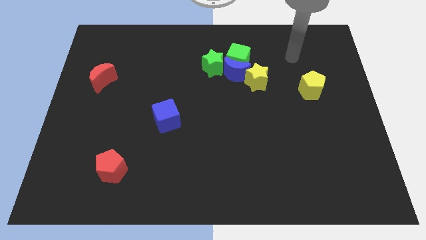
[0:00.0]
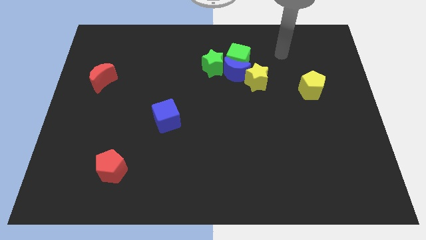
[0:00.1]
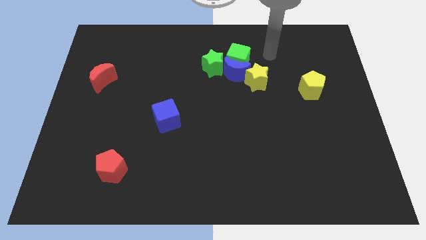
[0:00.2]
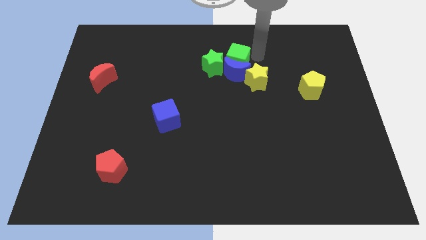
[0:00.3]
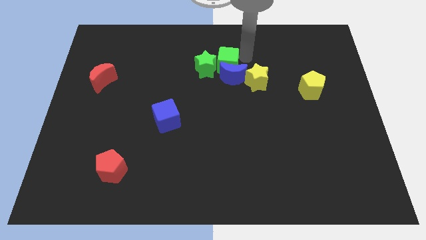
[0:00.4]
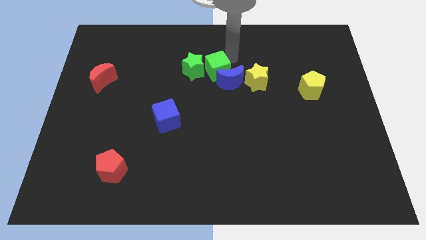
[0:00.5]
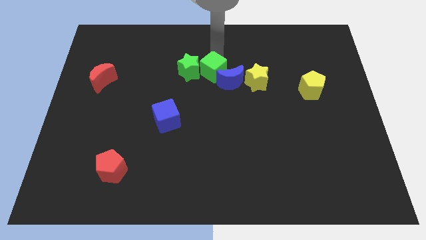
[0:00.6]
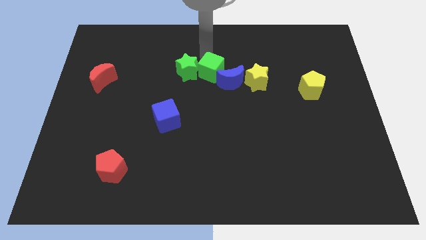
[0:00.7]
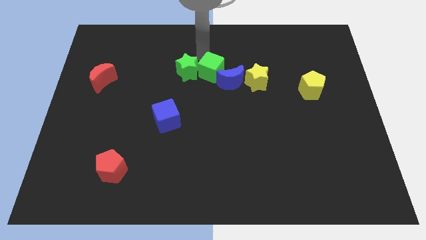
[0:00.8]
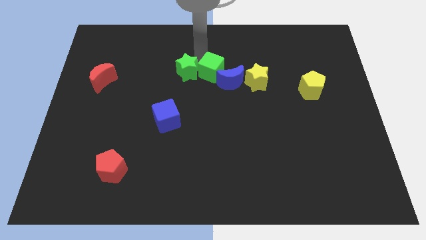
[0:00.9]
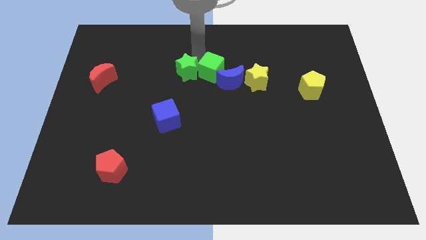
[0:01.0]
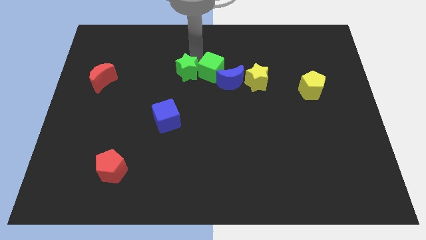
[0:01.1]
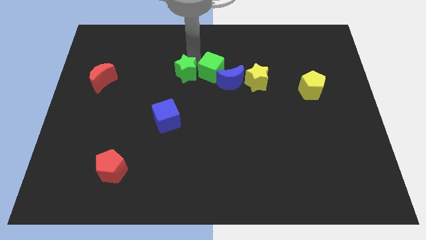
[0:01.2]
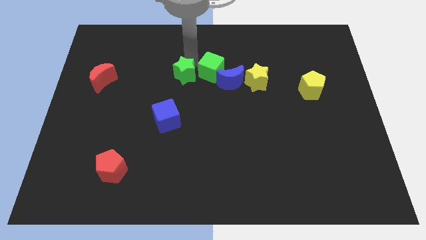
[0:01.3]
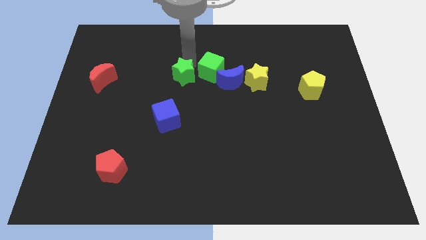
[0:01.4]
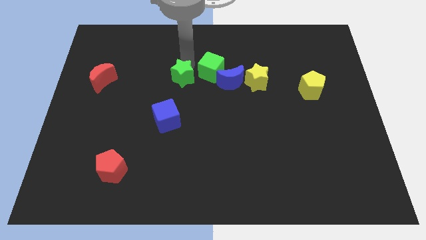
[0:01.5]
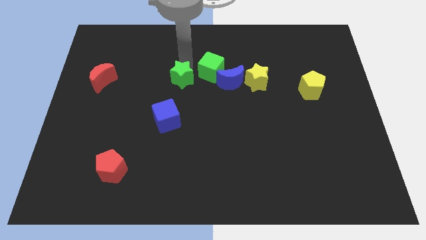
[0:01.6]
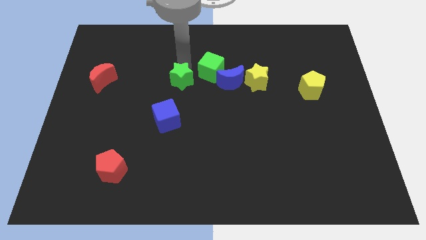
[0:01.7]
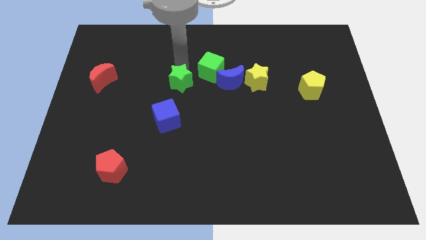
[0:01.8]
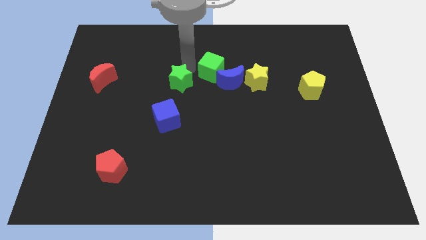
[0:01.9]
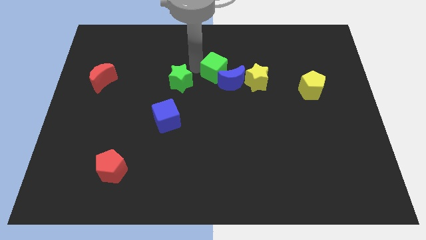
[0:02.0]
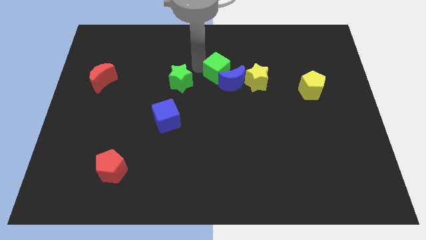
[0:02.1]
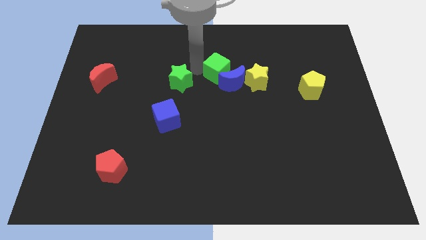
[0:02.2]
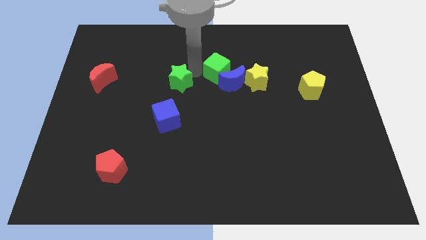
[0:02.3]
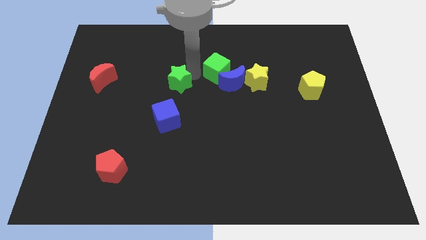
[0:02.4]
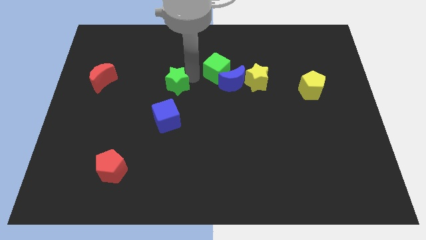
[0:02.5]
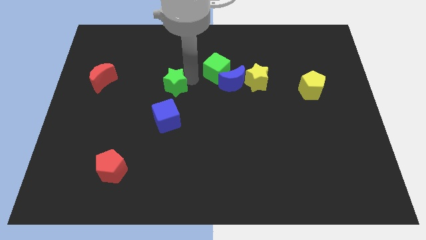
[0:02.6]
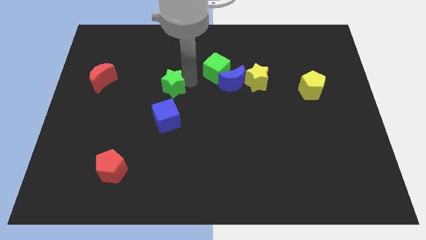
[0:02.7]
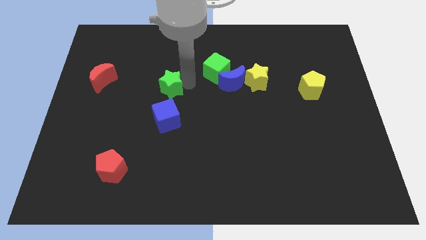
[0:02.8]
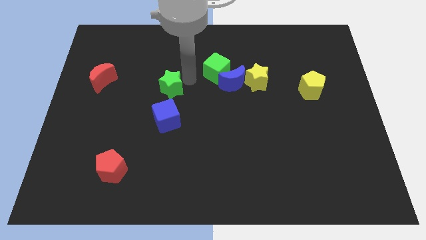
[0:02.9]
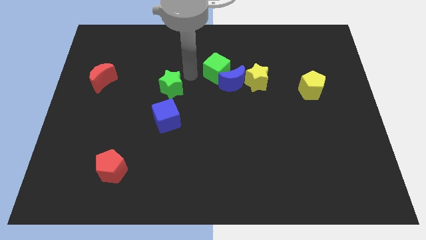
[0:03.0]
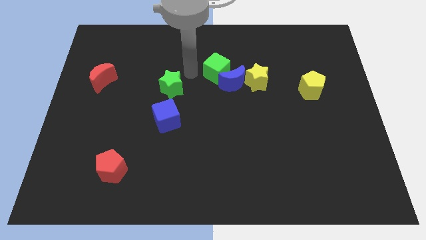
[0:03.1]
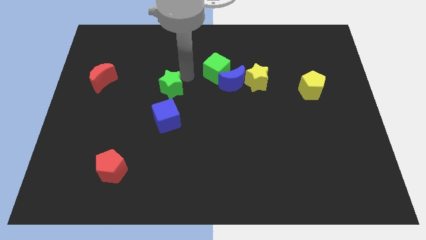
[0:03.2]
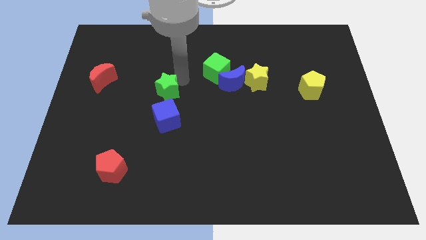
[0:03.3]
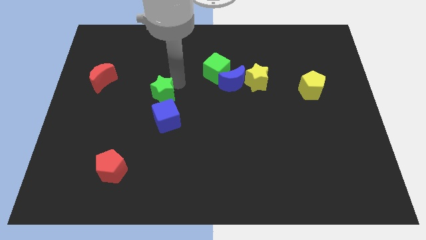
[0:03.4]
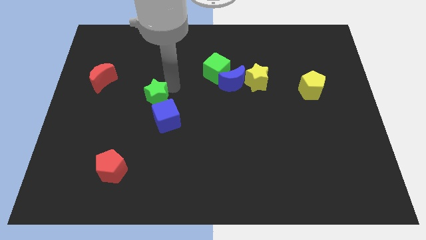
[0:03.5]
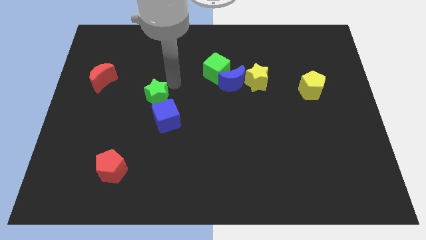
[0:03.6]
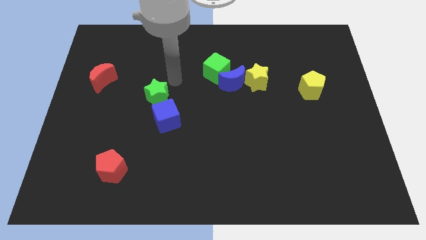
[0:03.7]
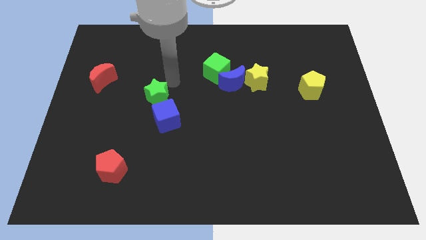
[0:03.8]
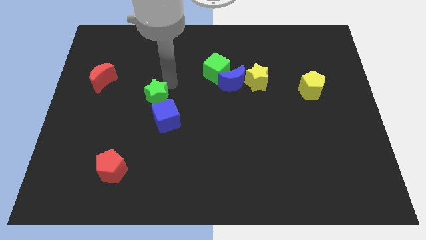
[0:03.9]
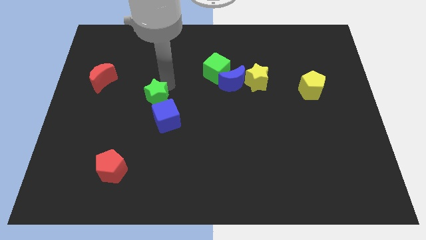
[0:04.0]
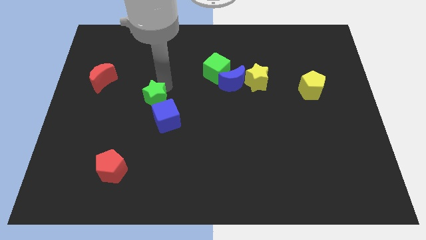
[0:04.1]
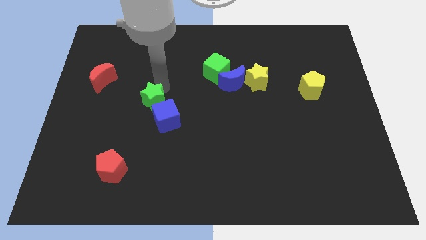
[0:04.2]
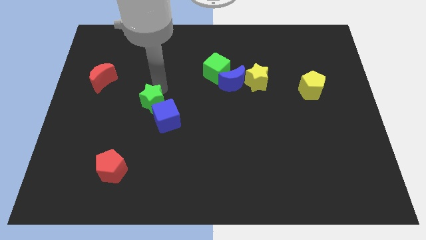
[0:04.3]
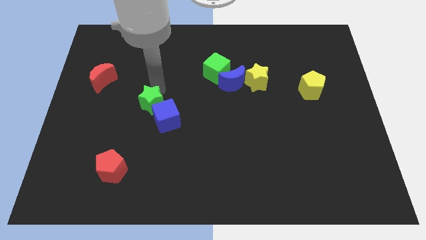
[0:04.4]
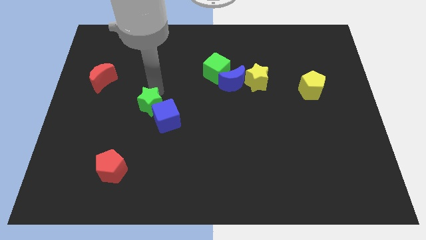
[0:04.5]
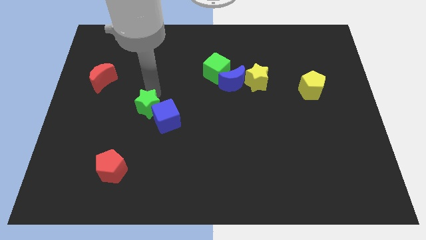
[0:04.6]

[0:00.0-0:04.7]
move the green star down and left

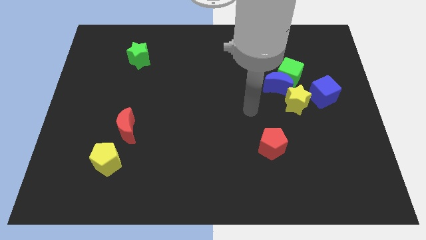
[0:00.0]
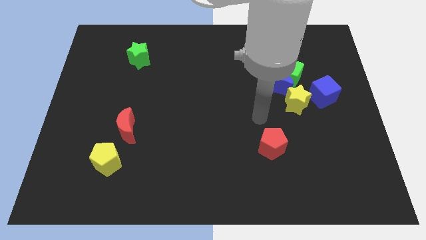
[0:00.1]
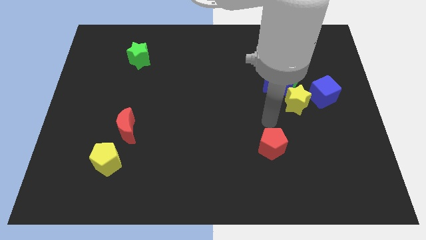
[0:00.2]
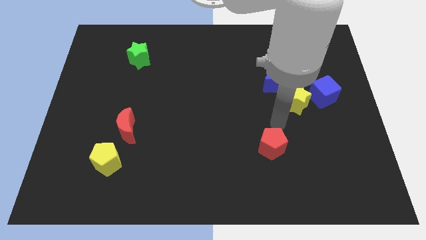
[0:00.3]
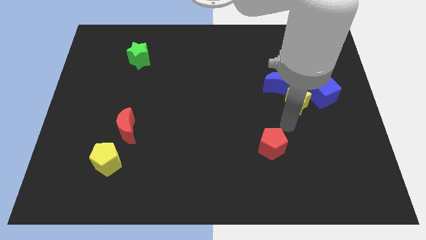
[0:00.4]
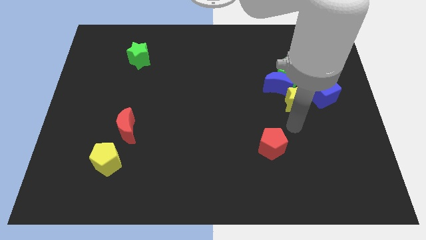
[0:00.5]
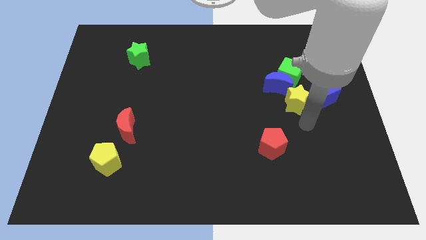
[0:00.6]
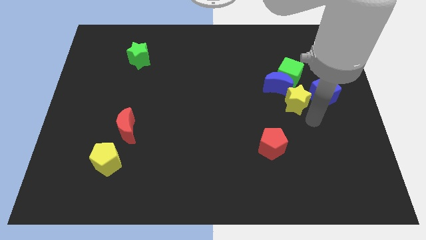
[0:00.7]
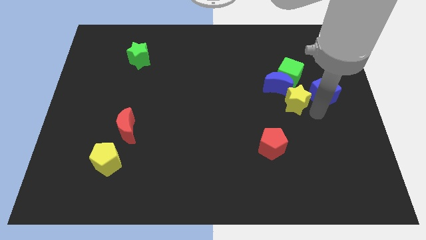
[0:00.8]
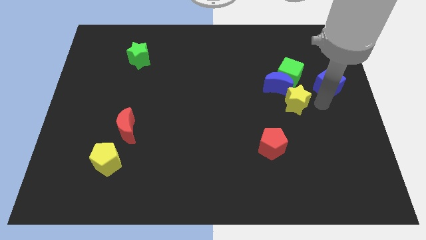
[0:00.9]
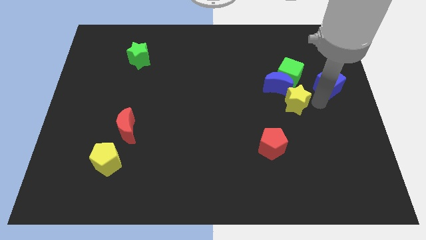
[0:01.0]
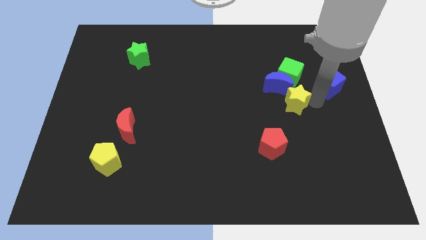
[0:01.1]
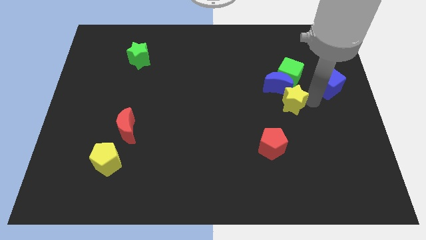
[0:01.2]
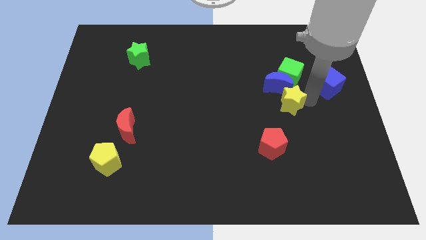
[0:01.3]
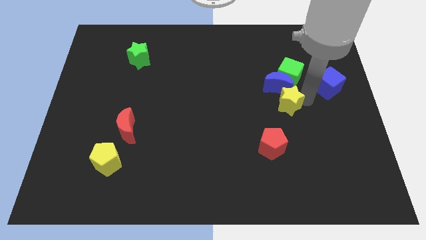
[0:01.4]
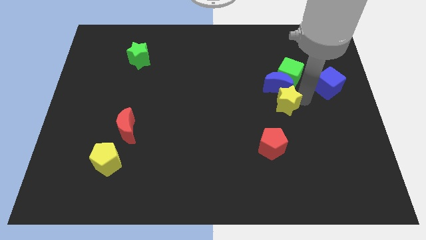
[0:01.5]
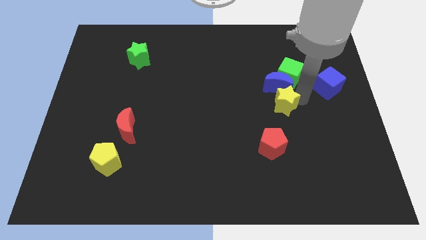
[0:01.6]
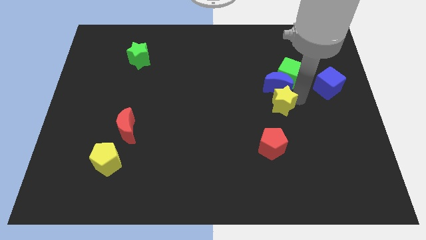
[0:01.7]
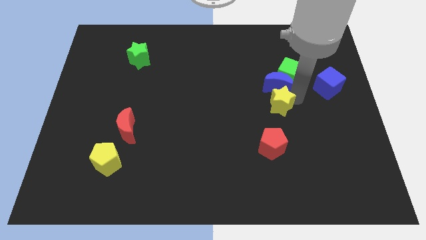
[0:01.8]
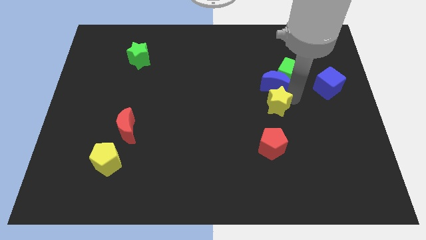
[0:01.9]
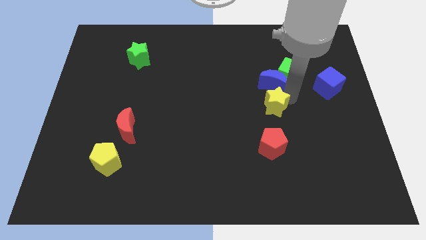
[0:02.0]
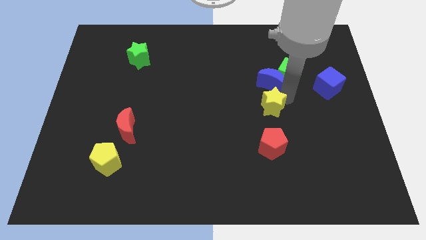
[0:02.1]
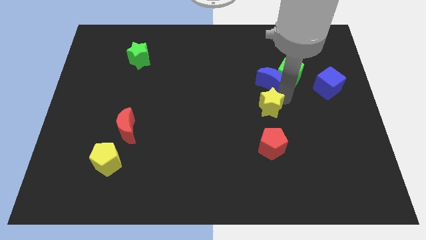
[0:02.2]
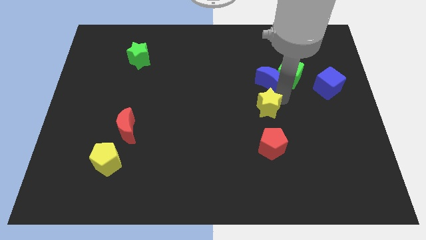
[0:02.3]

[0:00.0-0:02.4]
move the yellow star left slightly

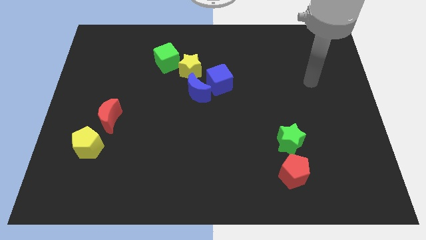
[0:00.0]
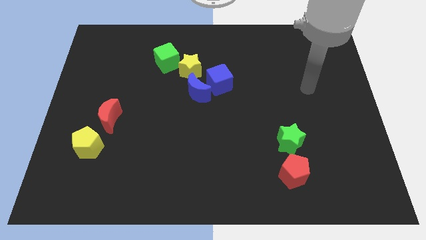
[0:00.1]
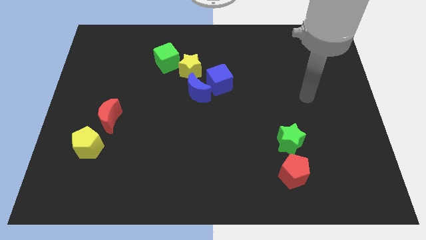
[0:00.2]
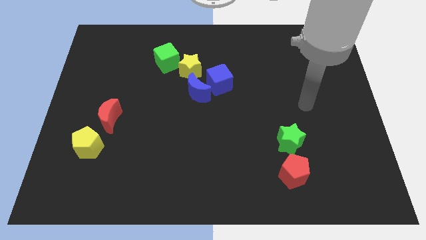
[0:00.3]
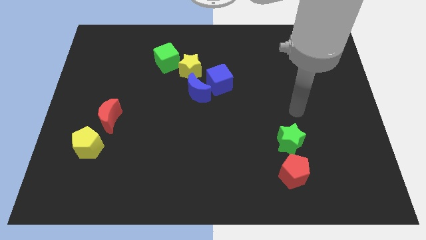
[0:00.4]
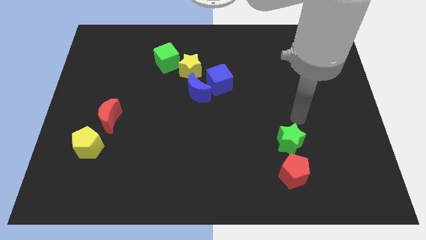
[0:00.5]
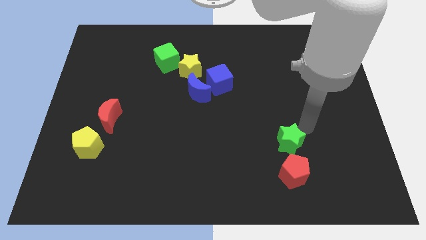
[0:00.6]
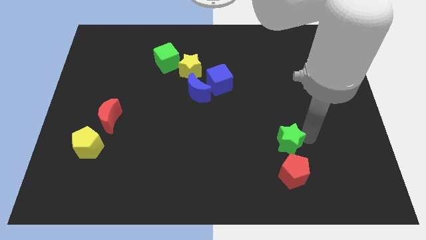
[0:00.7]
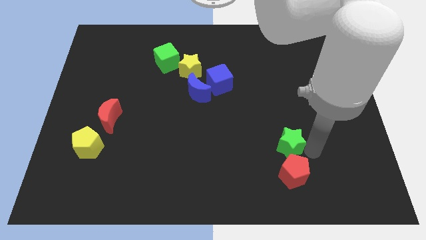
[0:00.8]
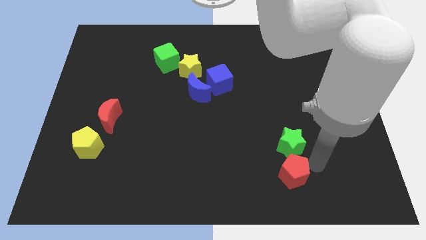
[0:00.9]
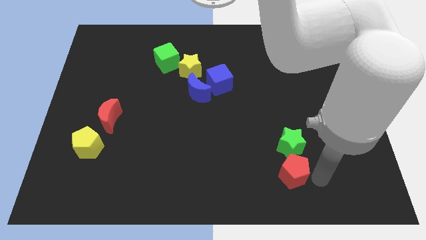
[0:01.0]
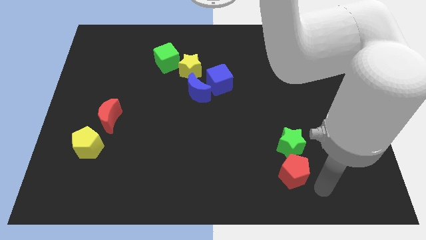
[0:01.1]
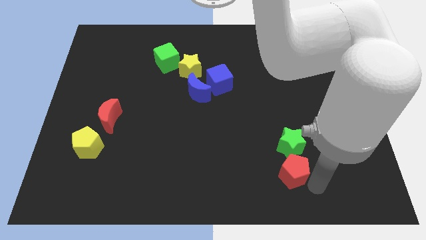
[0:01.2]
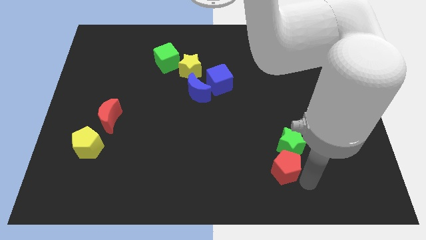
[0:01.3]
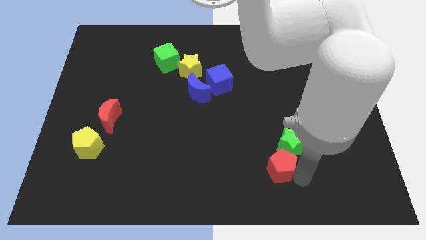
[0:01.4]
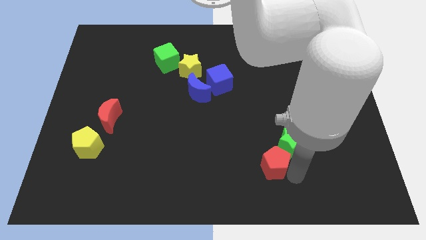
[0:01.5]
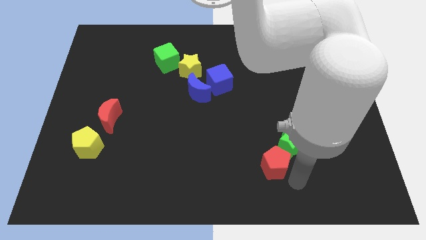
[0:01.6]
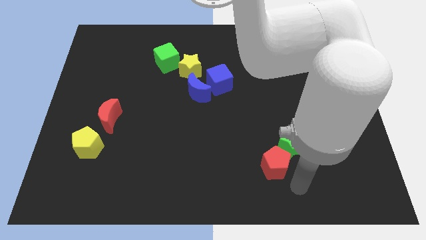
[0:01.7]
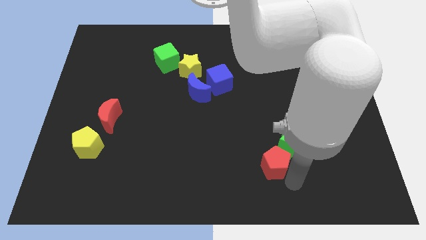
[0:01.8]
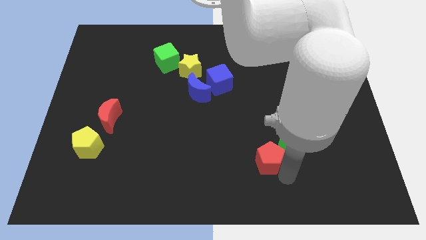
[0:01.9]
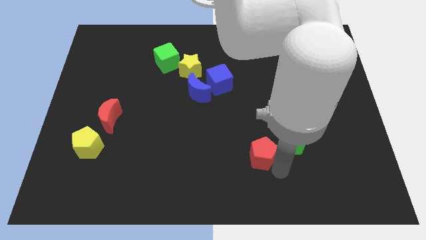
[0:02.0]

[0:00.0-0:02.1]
slightly slide the red pentagon upwards and left diagonally
